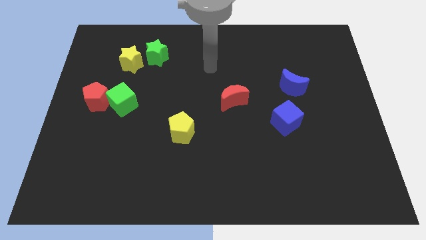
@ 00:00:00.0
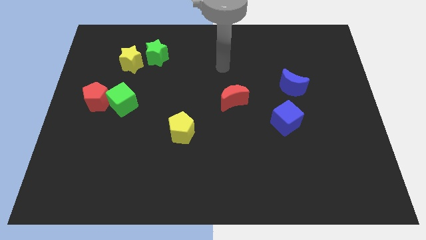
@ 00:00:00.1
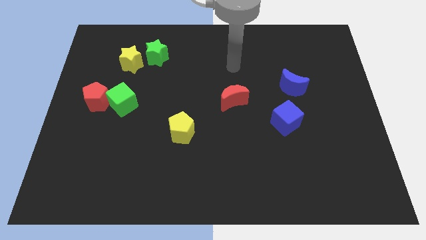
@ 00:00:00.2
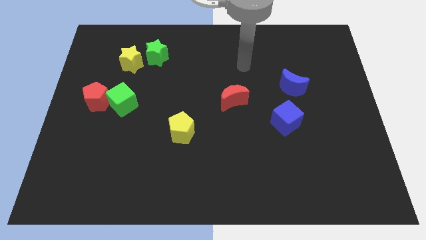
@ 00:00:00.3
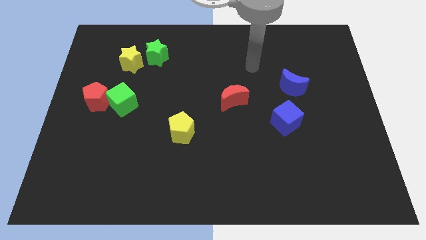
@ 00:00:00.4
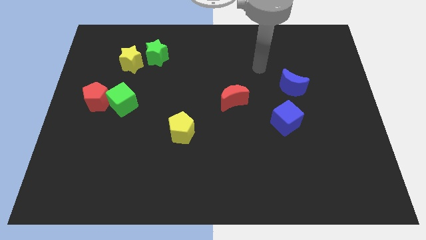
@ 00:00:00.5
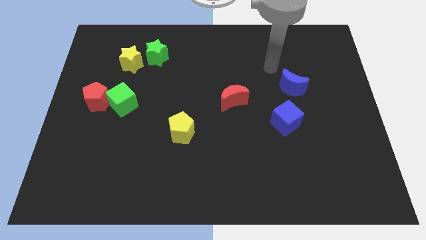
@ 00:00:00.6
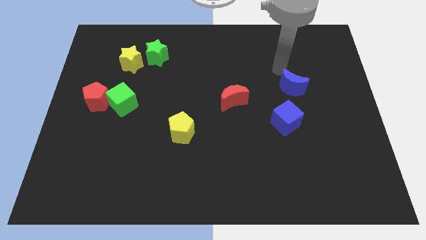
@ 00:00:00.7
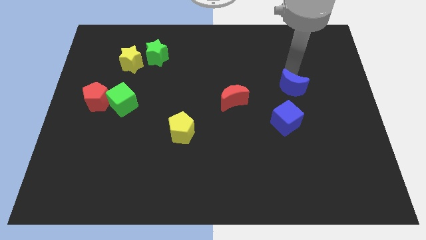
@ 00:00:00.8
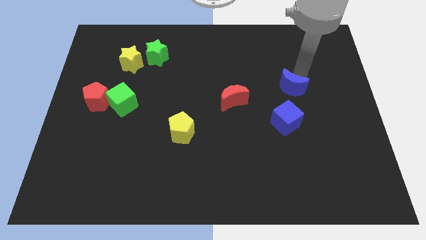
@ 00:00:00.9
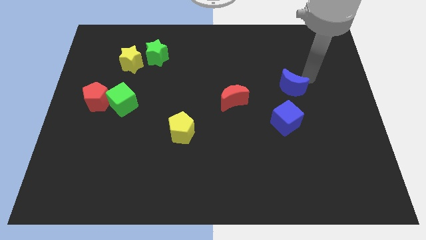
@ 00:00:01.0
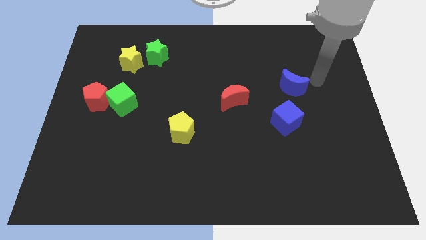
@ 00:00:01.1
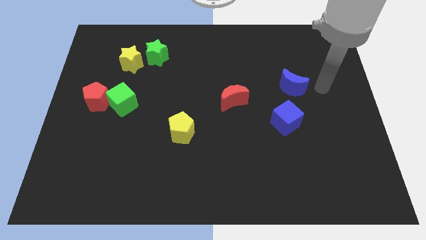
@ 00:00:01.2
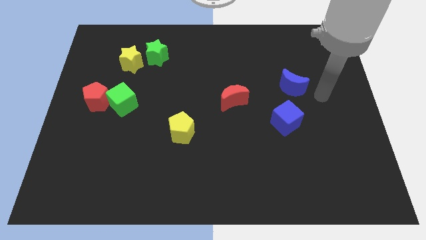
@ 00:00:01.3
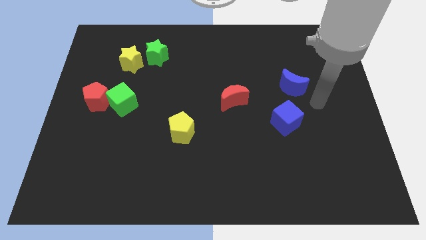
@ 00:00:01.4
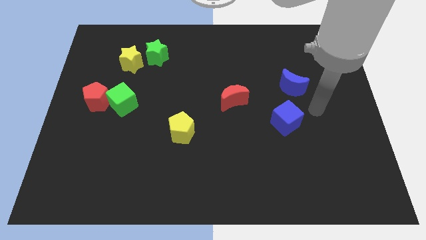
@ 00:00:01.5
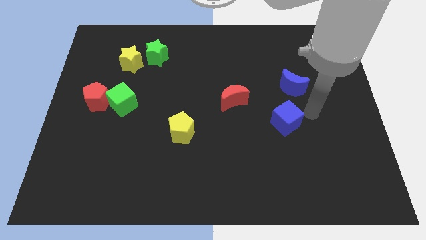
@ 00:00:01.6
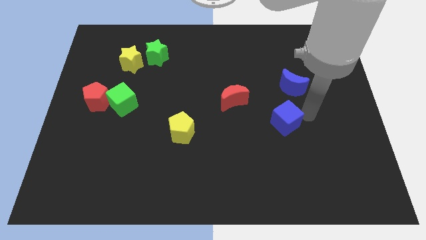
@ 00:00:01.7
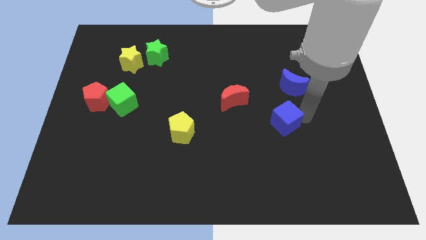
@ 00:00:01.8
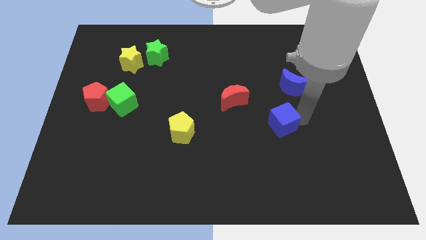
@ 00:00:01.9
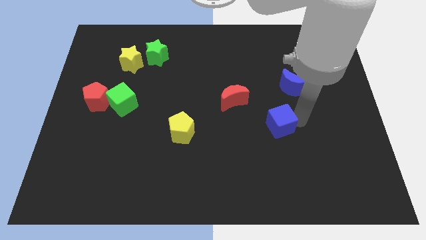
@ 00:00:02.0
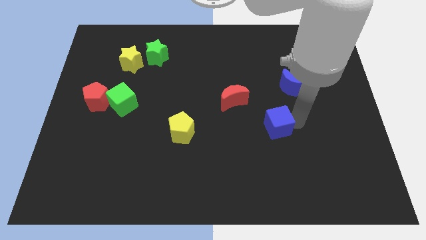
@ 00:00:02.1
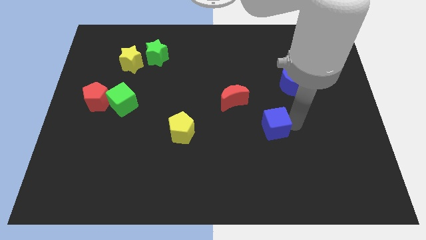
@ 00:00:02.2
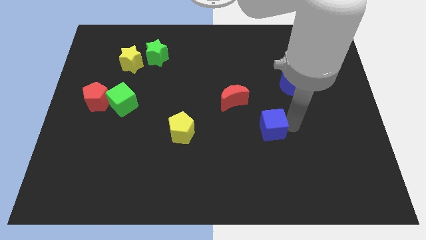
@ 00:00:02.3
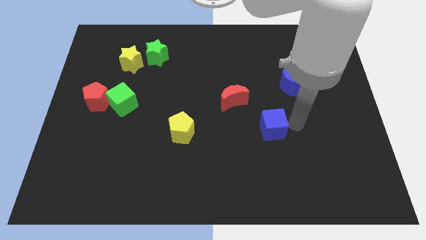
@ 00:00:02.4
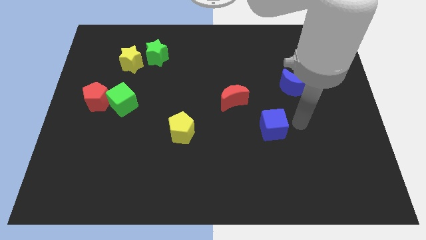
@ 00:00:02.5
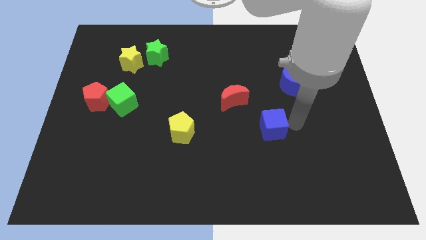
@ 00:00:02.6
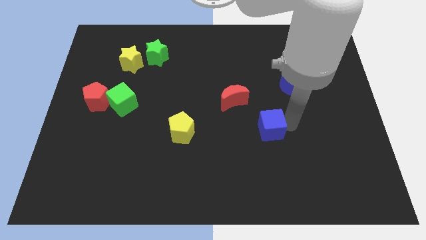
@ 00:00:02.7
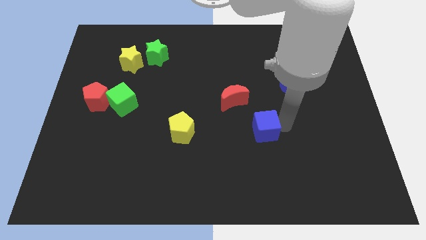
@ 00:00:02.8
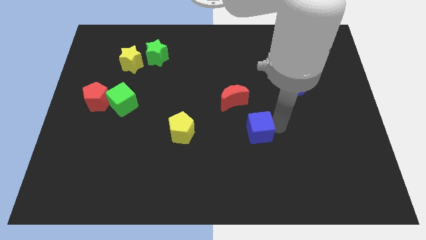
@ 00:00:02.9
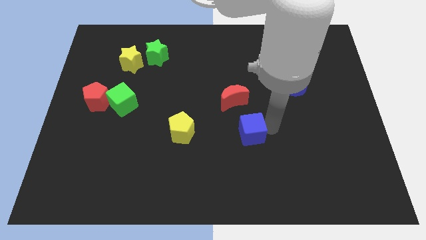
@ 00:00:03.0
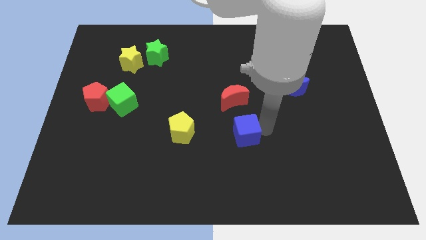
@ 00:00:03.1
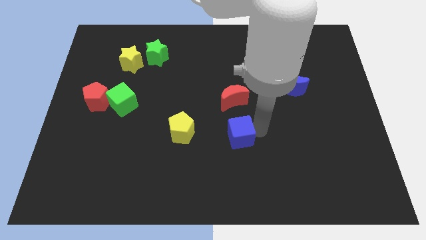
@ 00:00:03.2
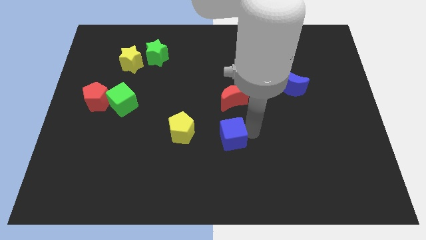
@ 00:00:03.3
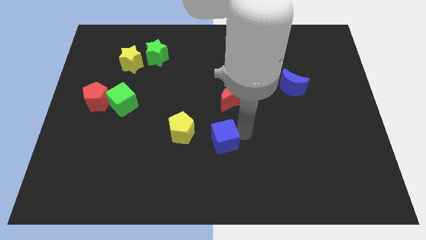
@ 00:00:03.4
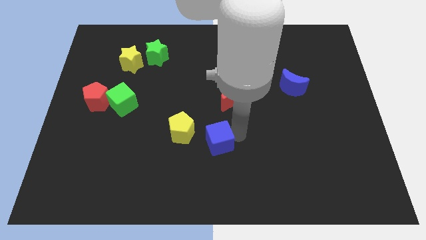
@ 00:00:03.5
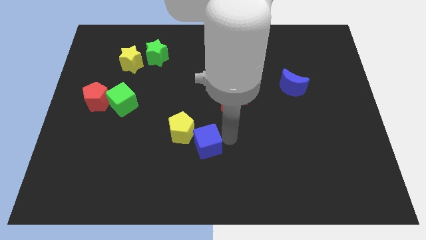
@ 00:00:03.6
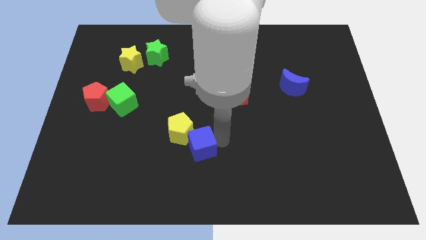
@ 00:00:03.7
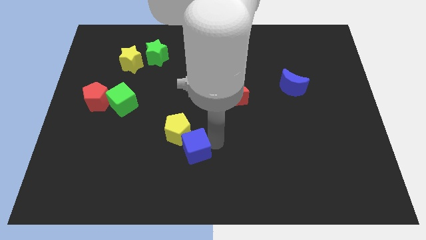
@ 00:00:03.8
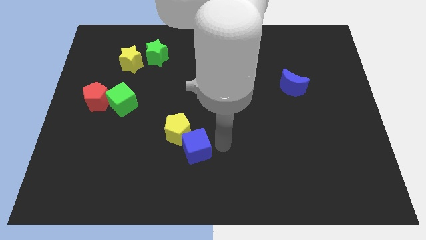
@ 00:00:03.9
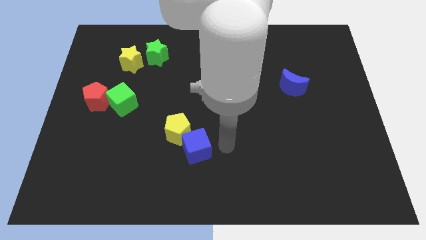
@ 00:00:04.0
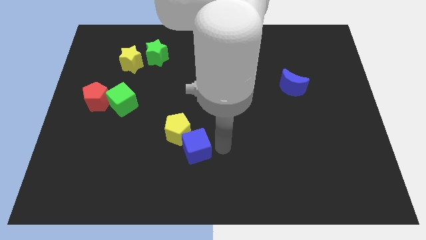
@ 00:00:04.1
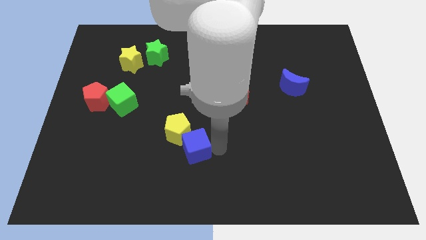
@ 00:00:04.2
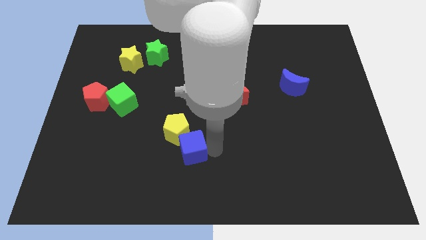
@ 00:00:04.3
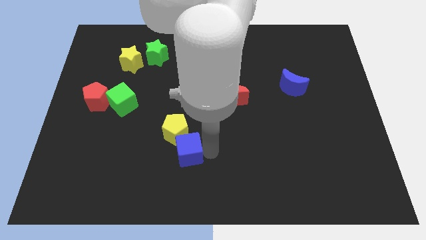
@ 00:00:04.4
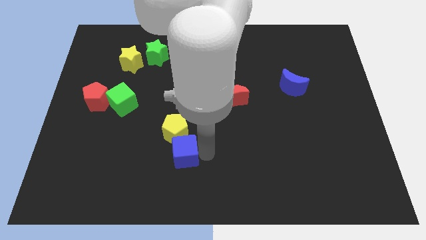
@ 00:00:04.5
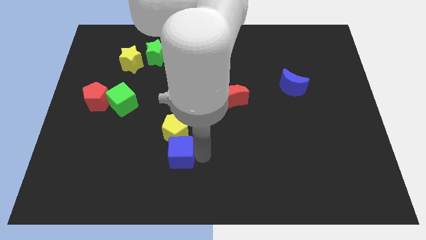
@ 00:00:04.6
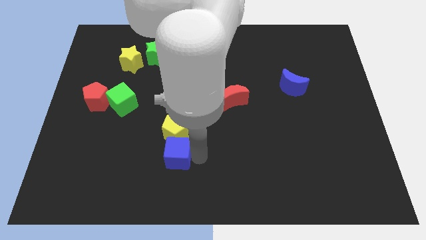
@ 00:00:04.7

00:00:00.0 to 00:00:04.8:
slide the blue cube to the bottom left of the yellow pentagon

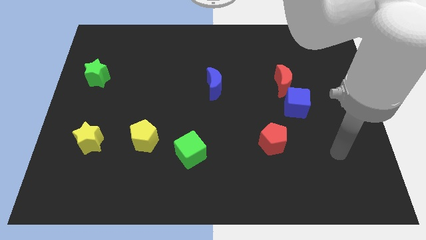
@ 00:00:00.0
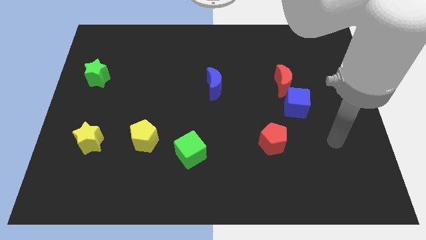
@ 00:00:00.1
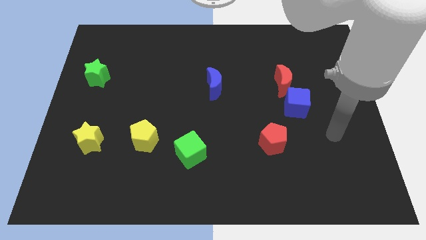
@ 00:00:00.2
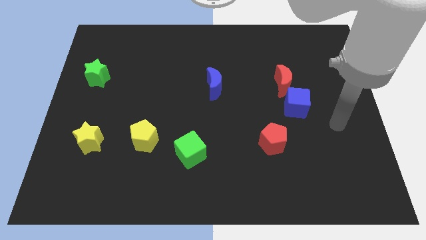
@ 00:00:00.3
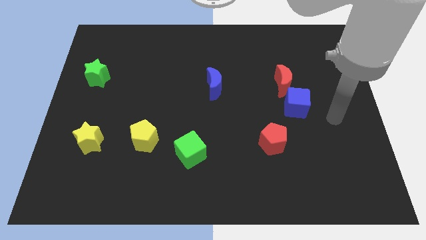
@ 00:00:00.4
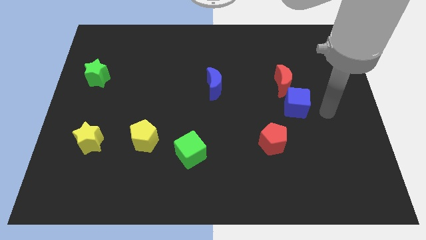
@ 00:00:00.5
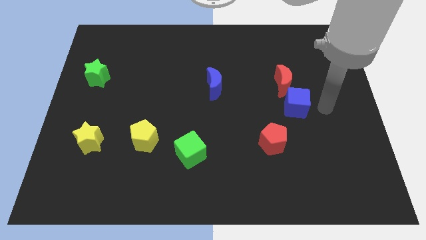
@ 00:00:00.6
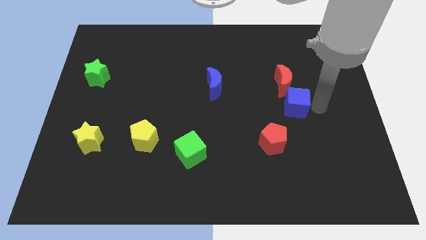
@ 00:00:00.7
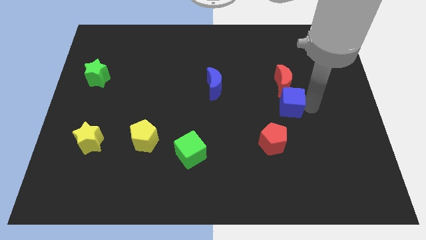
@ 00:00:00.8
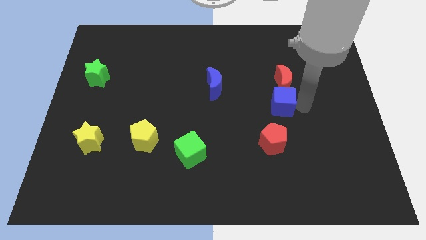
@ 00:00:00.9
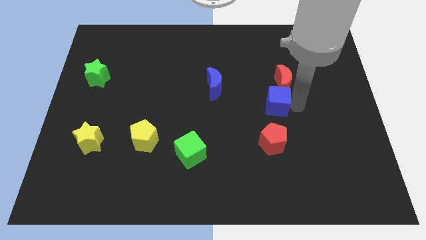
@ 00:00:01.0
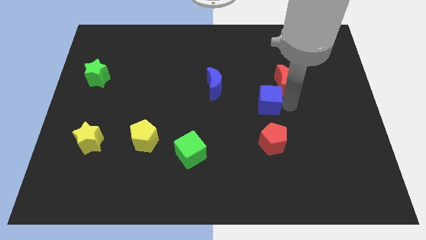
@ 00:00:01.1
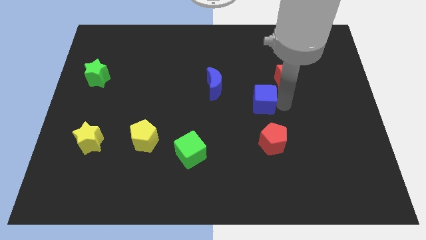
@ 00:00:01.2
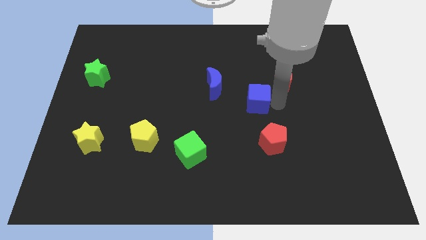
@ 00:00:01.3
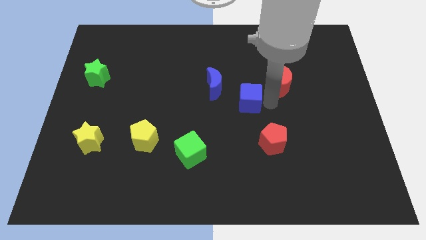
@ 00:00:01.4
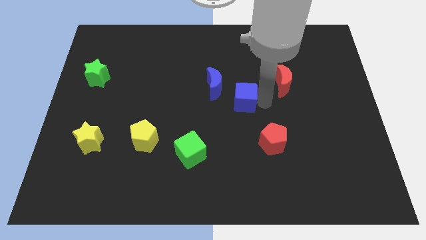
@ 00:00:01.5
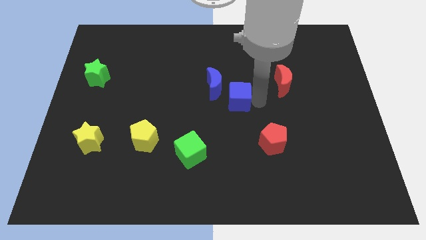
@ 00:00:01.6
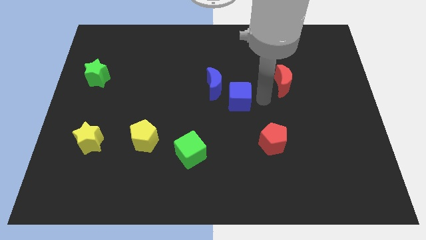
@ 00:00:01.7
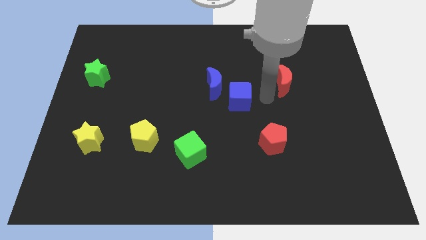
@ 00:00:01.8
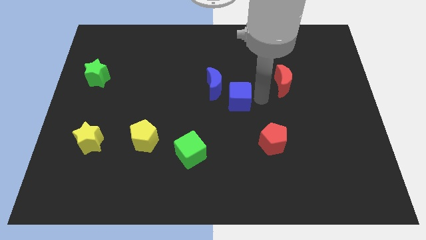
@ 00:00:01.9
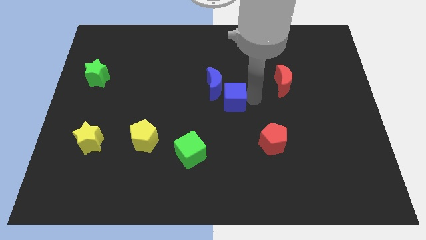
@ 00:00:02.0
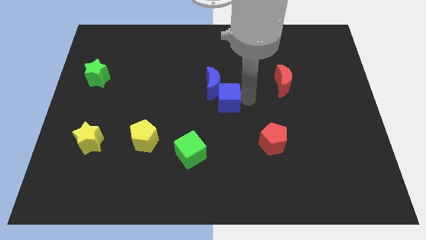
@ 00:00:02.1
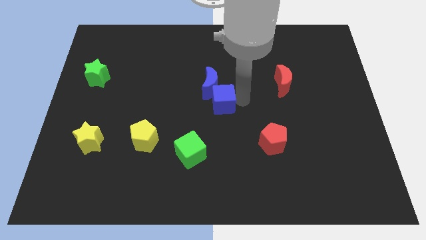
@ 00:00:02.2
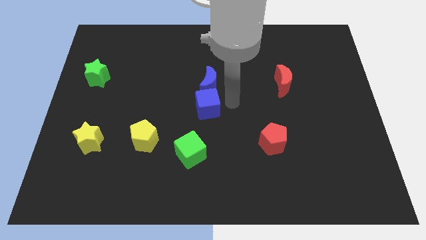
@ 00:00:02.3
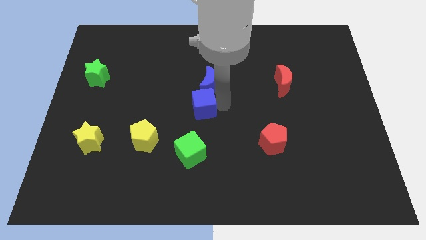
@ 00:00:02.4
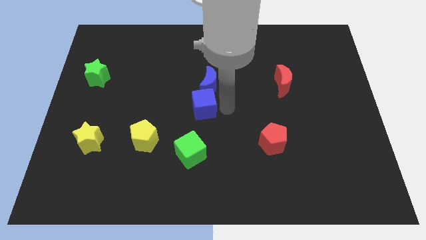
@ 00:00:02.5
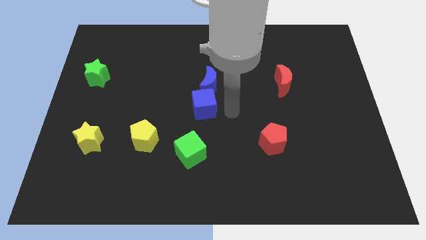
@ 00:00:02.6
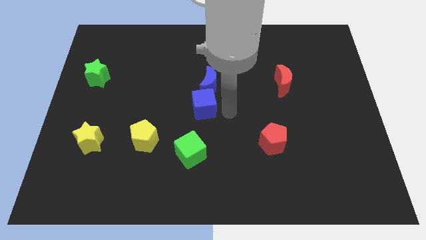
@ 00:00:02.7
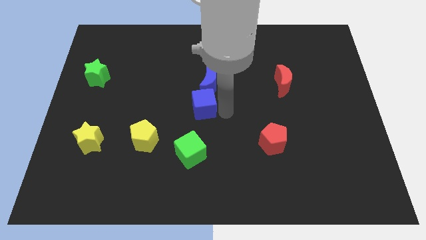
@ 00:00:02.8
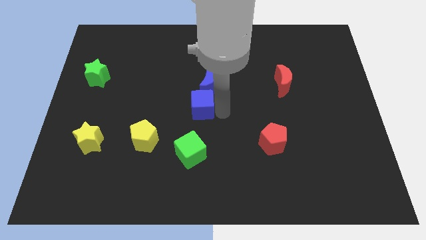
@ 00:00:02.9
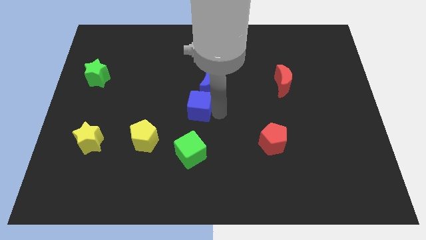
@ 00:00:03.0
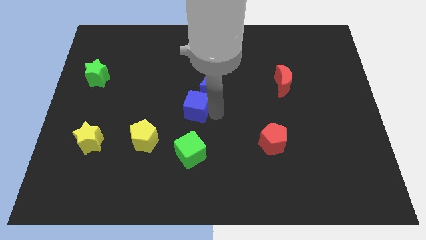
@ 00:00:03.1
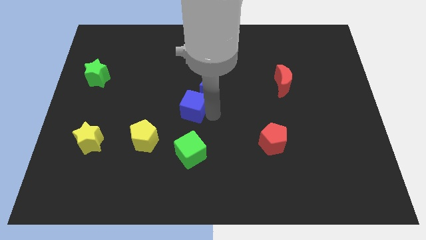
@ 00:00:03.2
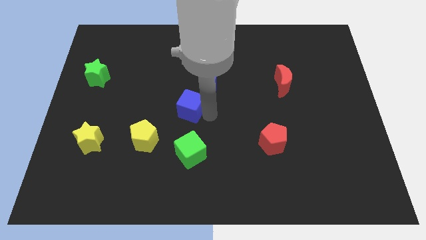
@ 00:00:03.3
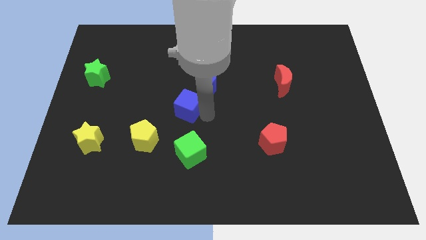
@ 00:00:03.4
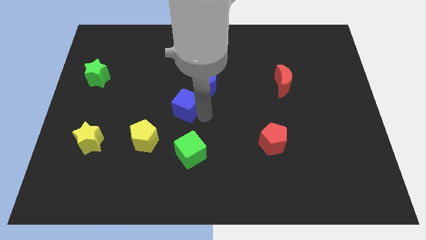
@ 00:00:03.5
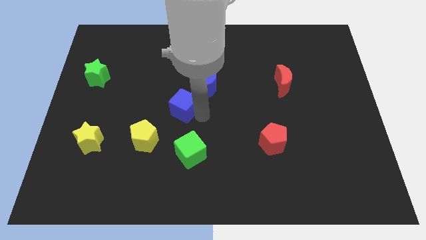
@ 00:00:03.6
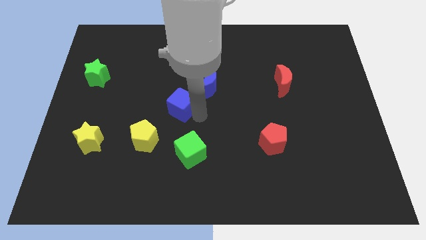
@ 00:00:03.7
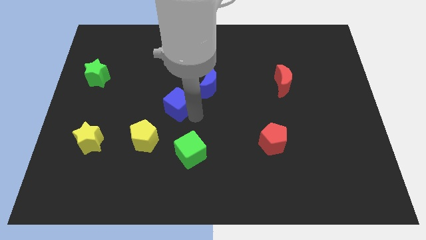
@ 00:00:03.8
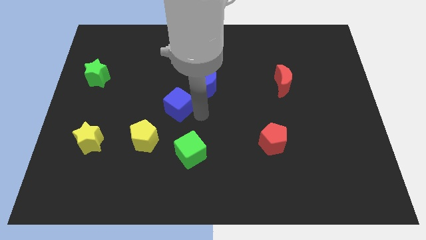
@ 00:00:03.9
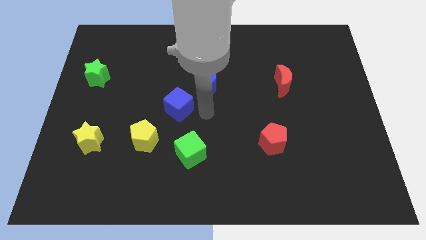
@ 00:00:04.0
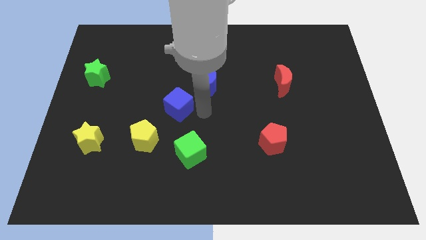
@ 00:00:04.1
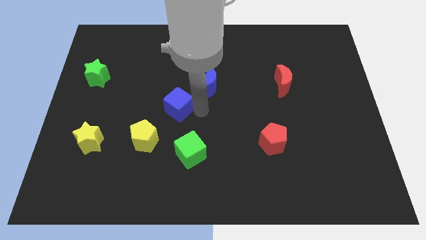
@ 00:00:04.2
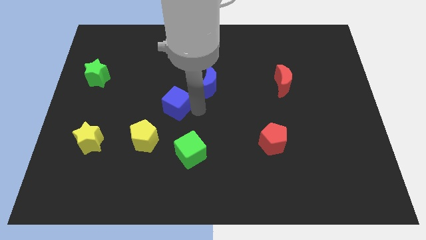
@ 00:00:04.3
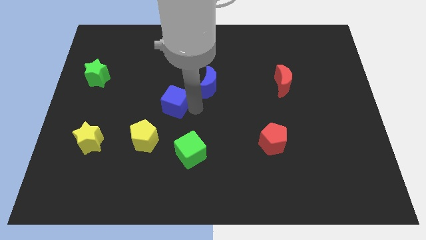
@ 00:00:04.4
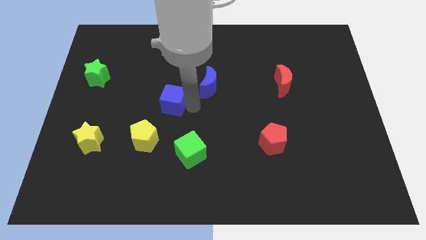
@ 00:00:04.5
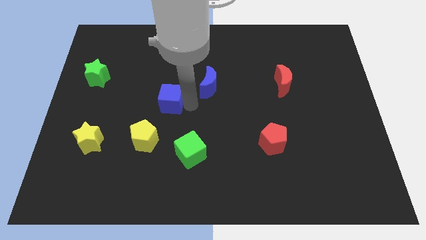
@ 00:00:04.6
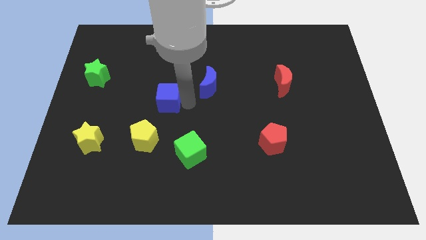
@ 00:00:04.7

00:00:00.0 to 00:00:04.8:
push the blue cube to the top side of the yellow pentagon
